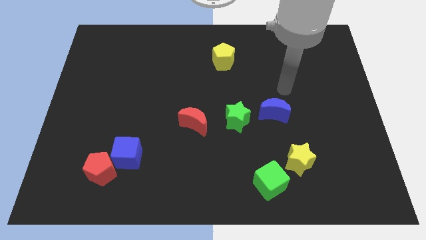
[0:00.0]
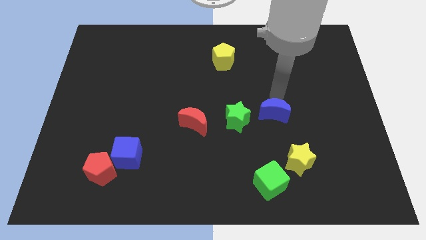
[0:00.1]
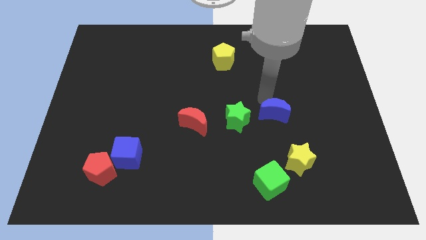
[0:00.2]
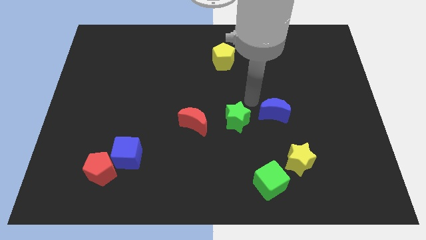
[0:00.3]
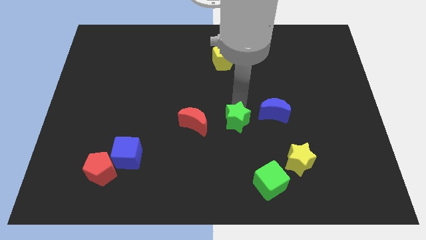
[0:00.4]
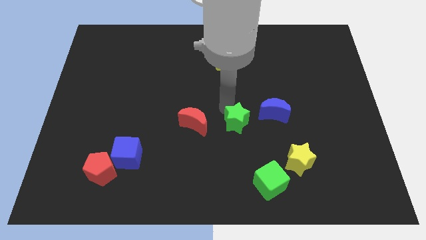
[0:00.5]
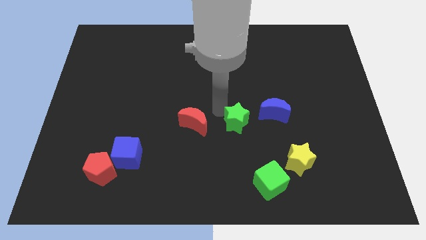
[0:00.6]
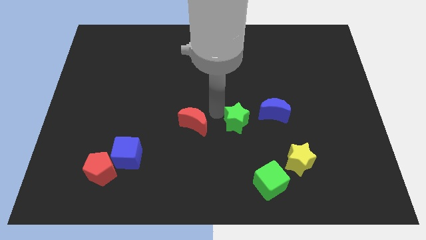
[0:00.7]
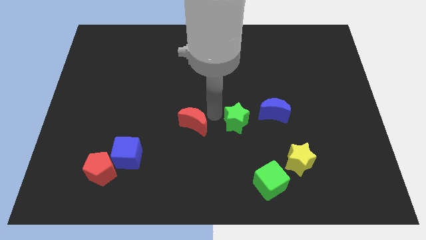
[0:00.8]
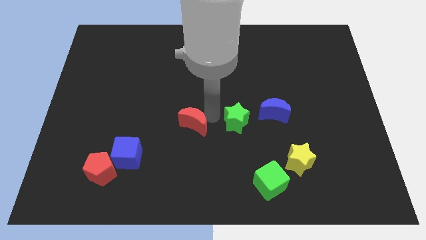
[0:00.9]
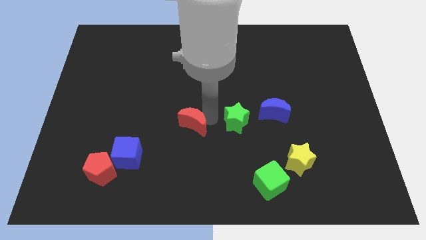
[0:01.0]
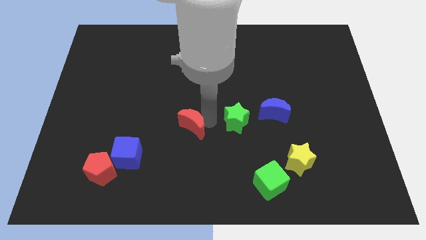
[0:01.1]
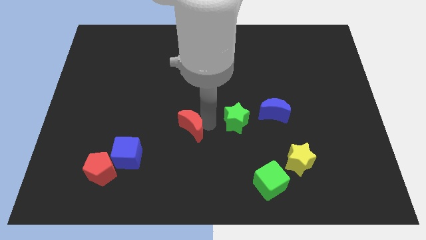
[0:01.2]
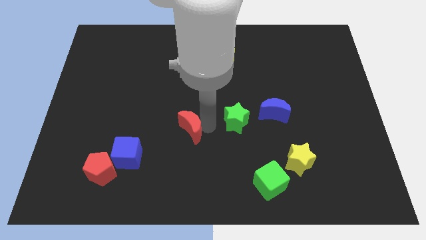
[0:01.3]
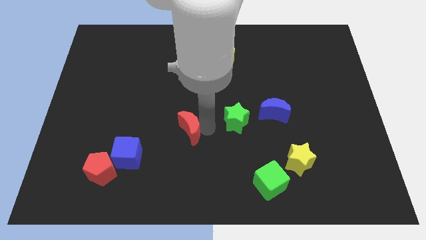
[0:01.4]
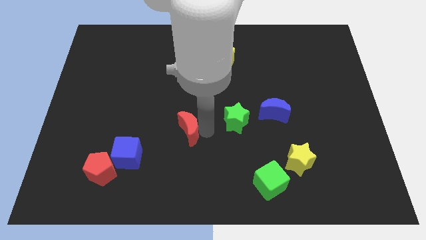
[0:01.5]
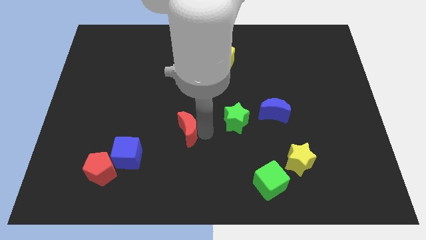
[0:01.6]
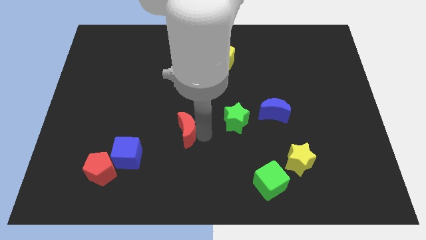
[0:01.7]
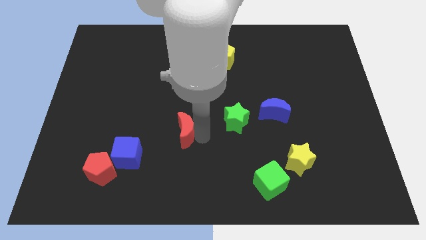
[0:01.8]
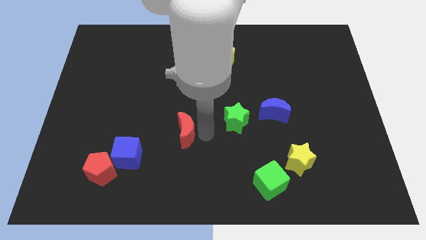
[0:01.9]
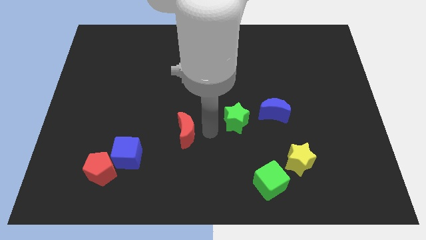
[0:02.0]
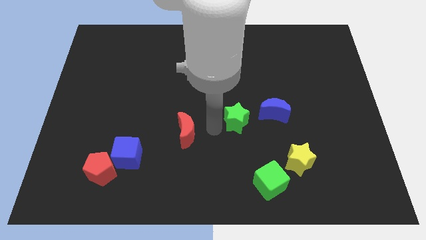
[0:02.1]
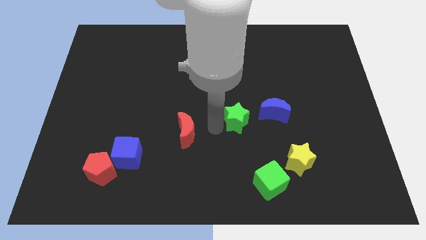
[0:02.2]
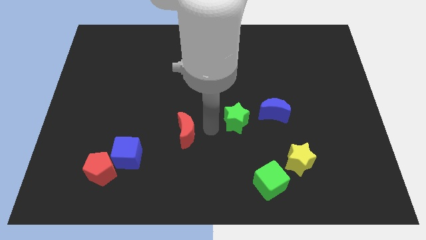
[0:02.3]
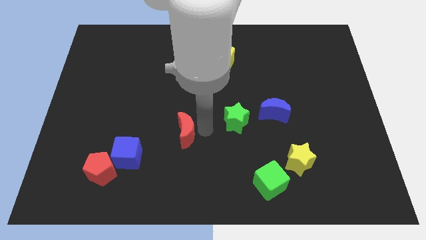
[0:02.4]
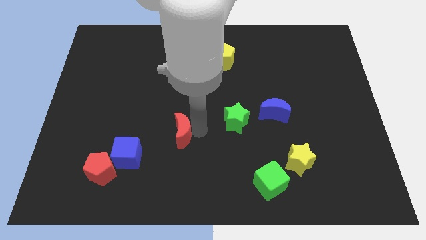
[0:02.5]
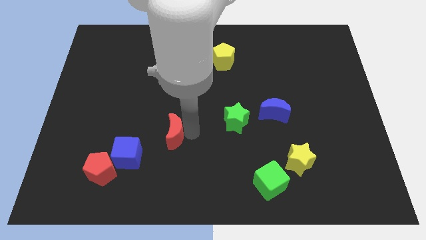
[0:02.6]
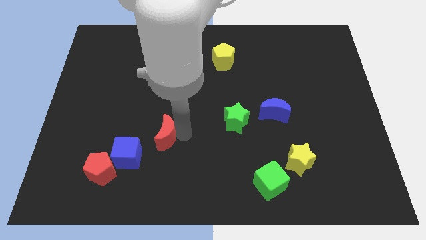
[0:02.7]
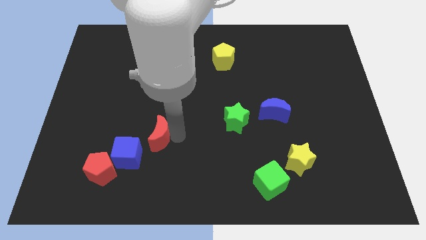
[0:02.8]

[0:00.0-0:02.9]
slightly slide the red moon to the left

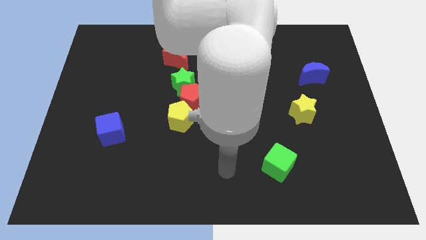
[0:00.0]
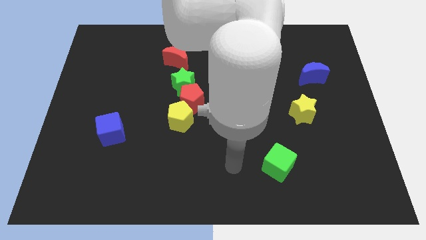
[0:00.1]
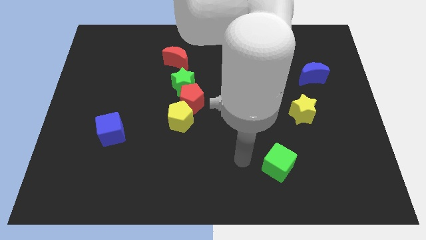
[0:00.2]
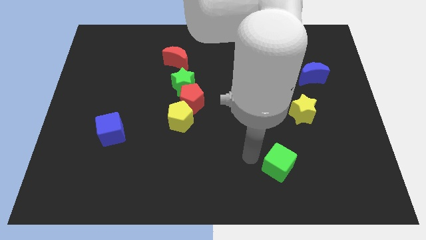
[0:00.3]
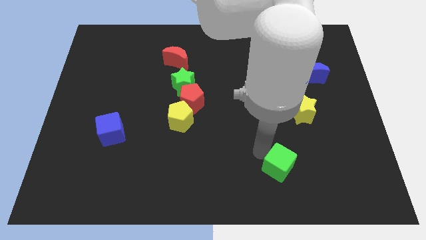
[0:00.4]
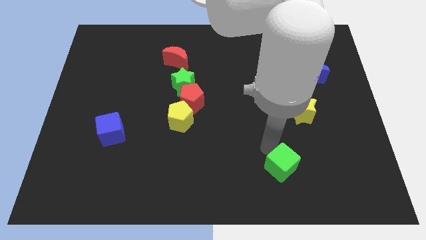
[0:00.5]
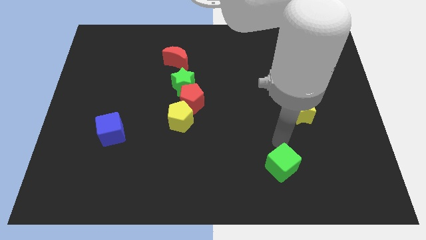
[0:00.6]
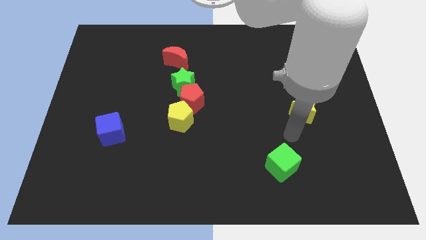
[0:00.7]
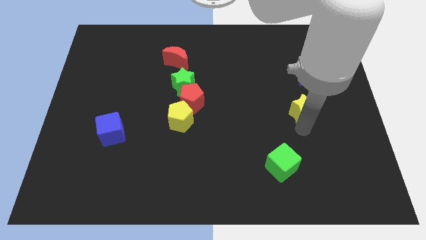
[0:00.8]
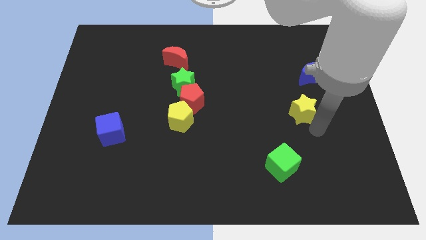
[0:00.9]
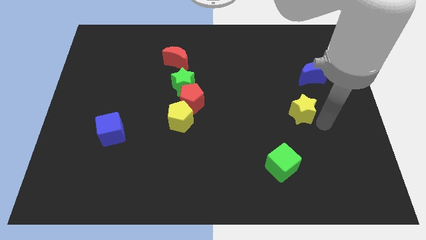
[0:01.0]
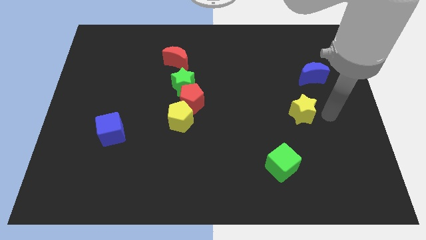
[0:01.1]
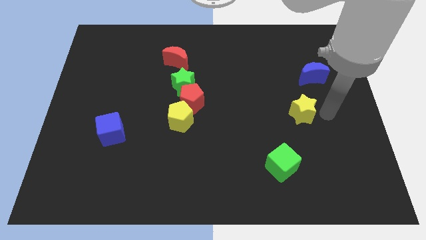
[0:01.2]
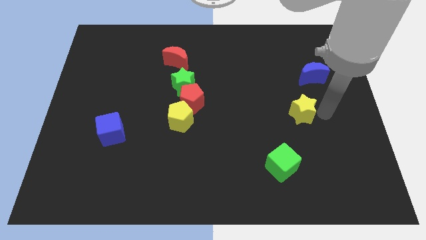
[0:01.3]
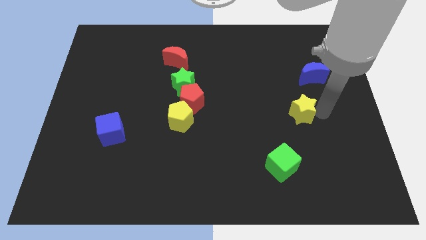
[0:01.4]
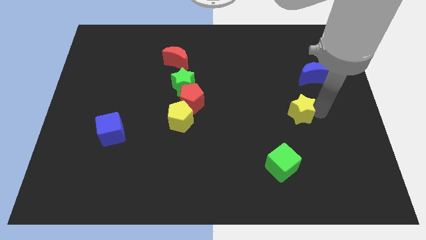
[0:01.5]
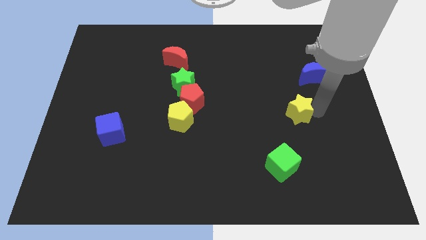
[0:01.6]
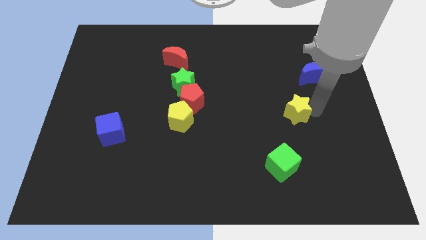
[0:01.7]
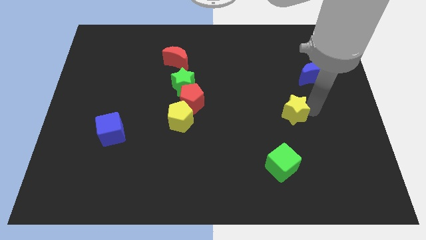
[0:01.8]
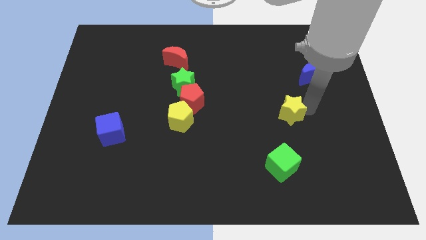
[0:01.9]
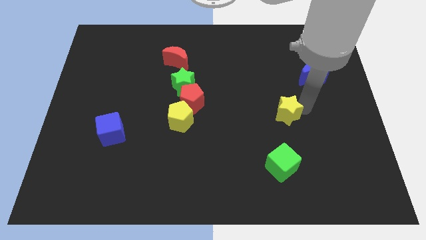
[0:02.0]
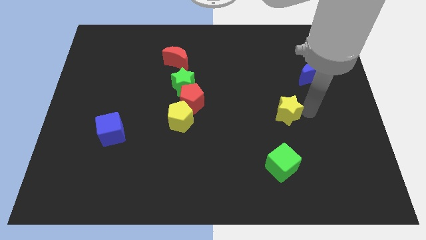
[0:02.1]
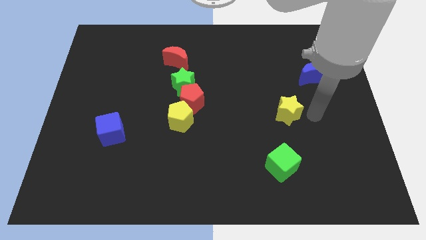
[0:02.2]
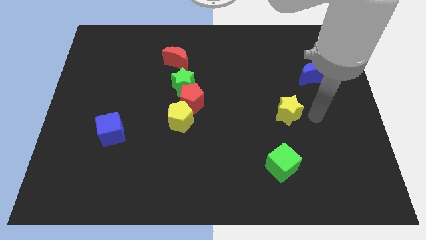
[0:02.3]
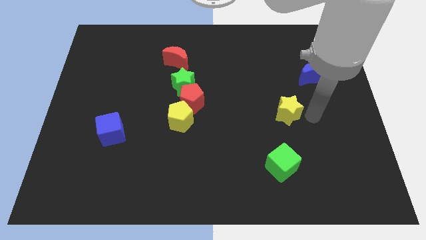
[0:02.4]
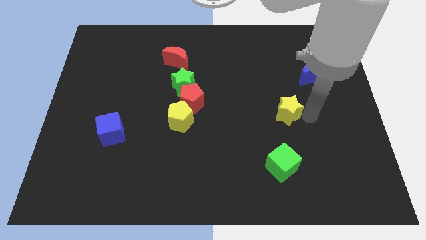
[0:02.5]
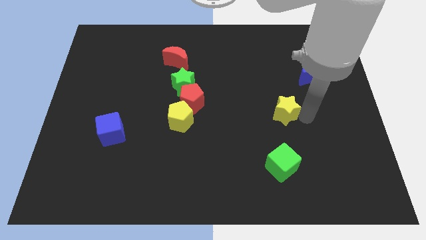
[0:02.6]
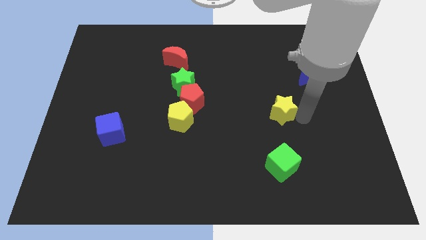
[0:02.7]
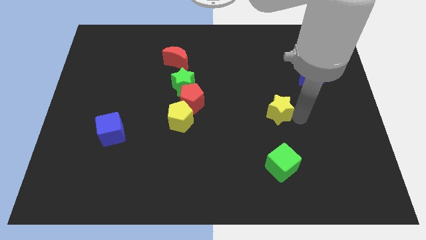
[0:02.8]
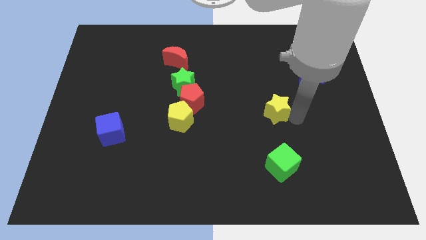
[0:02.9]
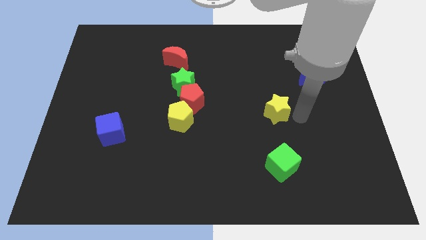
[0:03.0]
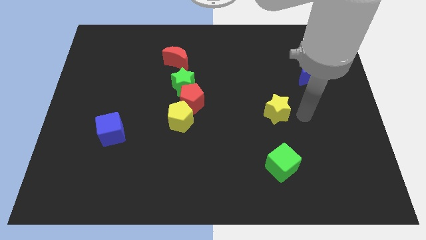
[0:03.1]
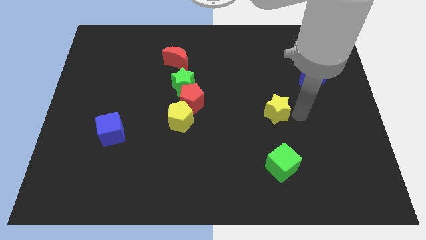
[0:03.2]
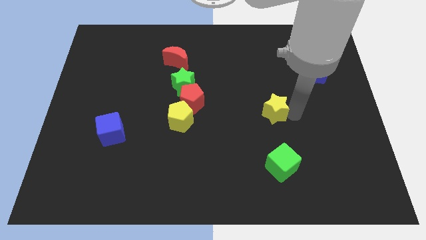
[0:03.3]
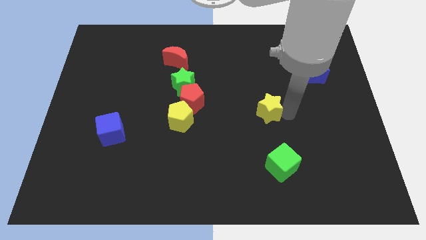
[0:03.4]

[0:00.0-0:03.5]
slide the yellow star to the left a bit

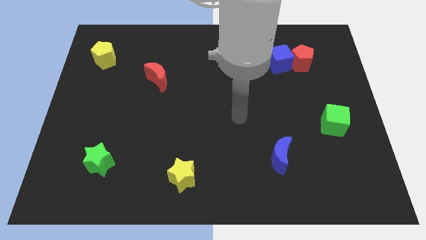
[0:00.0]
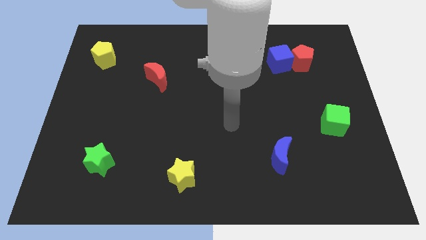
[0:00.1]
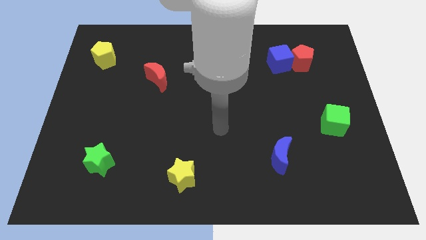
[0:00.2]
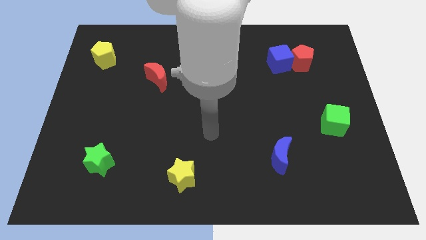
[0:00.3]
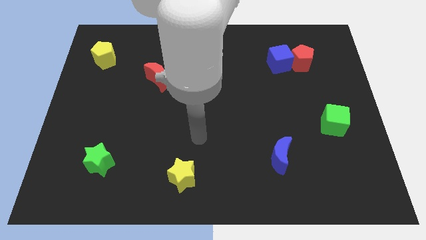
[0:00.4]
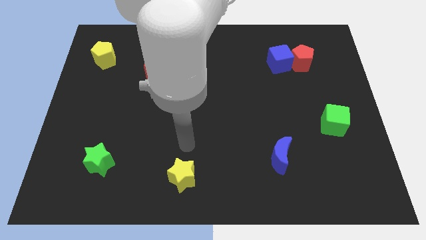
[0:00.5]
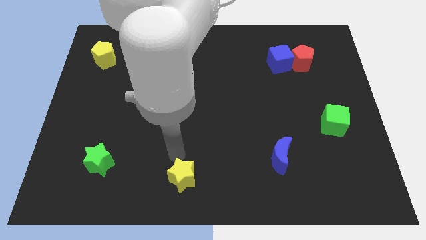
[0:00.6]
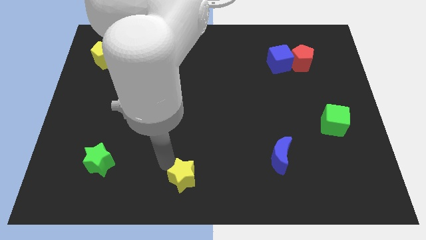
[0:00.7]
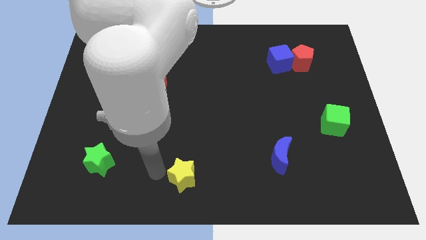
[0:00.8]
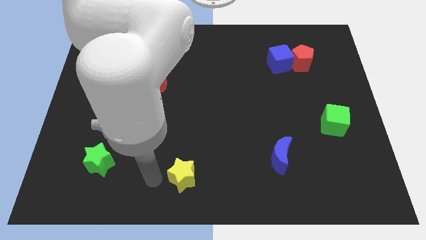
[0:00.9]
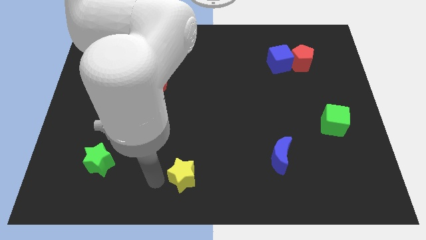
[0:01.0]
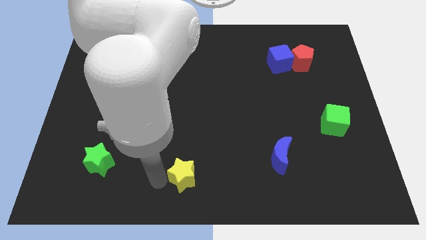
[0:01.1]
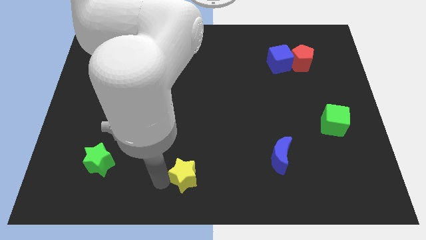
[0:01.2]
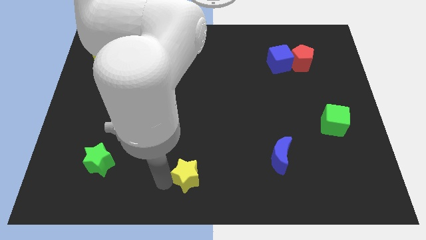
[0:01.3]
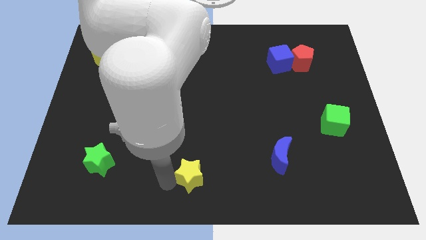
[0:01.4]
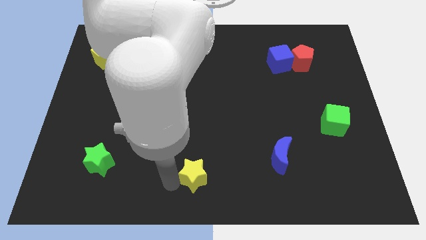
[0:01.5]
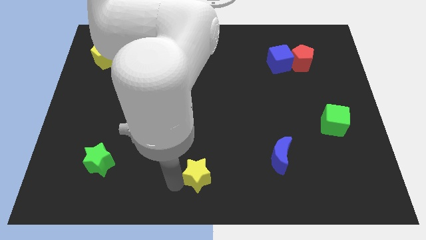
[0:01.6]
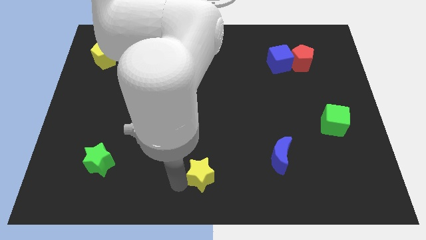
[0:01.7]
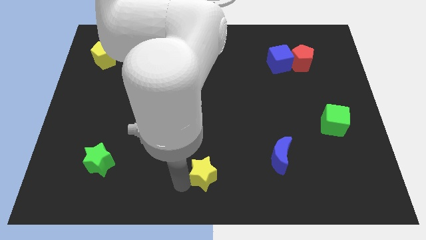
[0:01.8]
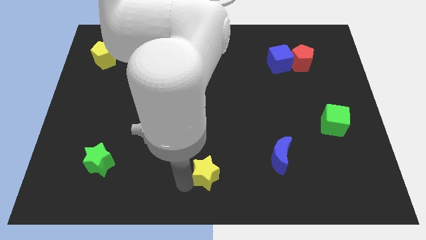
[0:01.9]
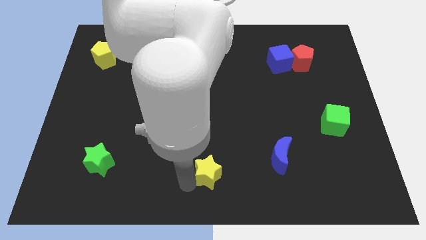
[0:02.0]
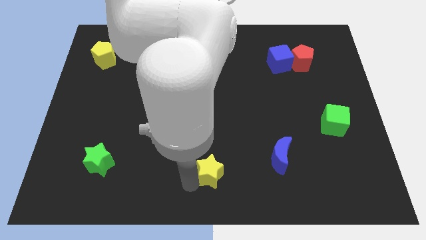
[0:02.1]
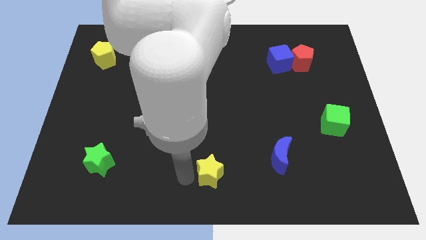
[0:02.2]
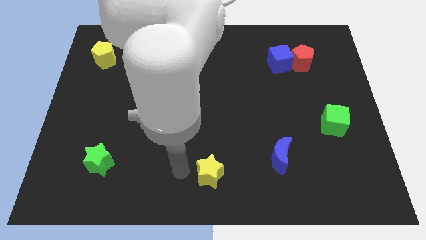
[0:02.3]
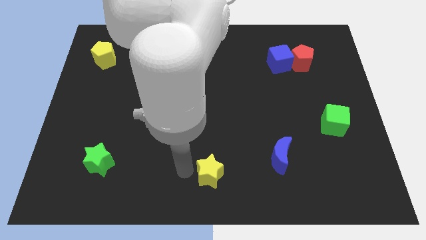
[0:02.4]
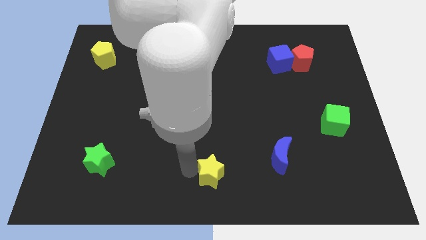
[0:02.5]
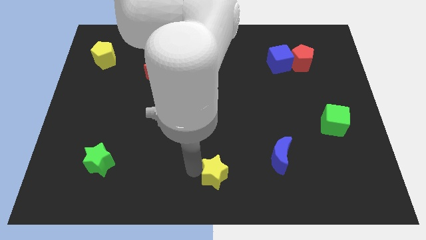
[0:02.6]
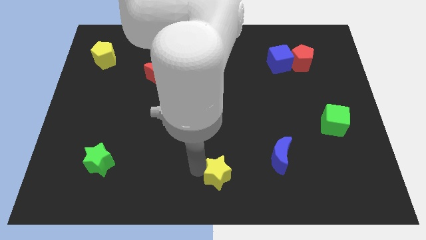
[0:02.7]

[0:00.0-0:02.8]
slightly move the yellow star right
